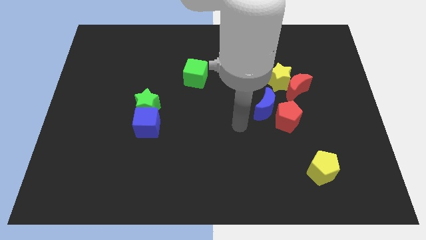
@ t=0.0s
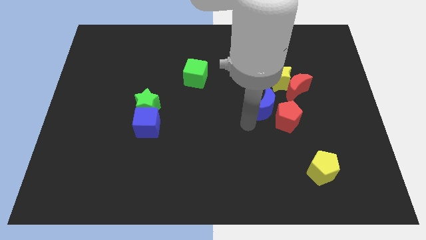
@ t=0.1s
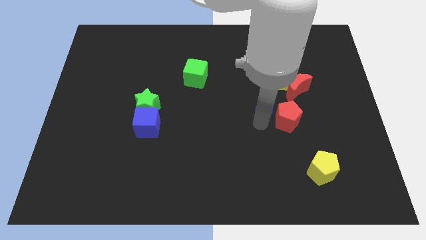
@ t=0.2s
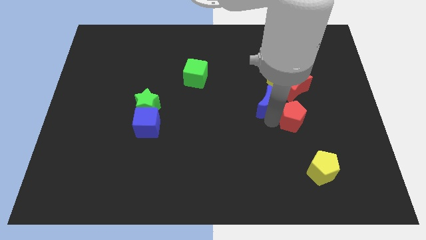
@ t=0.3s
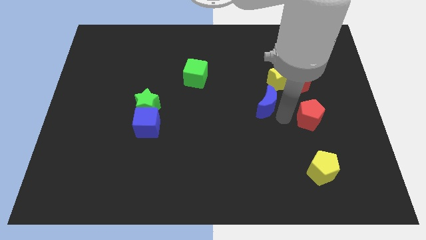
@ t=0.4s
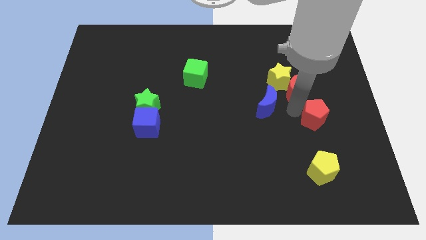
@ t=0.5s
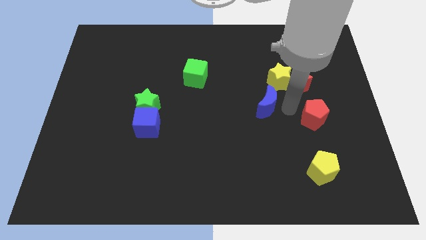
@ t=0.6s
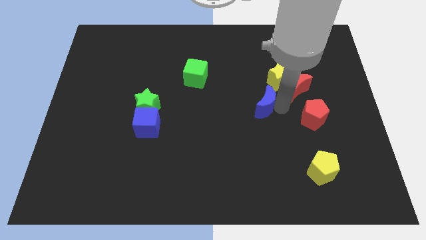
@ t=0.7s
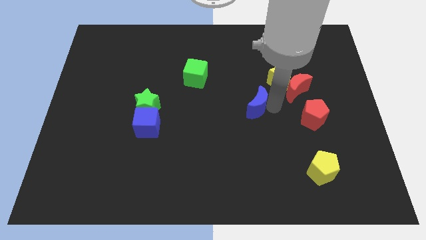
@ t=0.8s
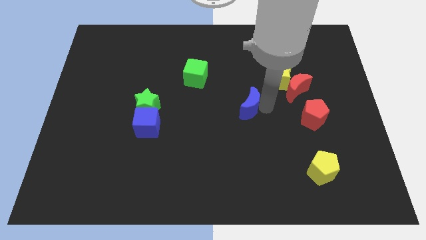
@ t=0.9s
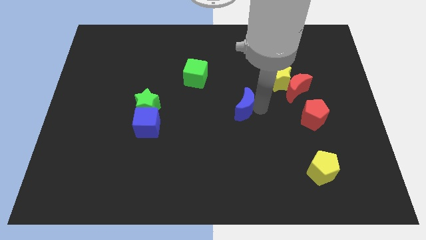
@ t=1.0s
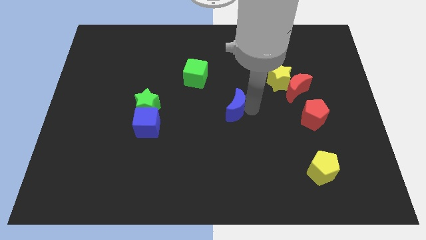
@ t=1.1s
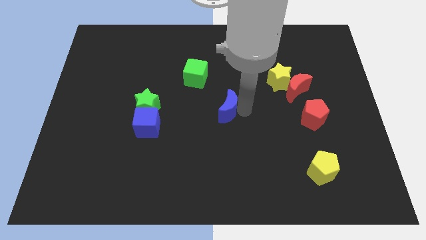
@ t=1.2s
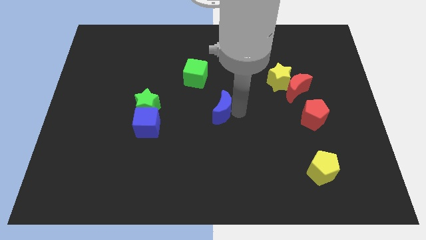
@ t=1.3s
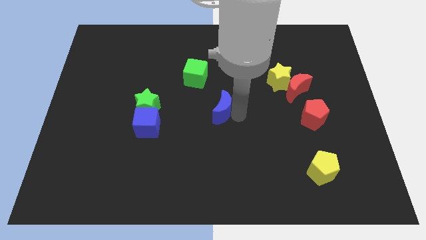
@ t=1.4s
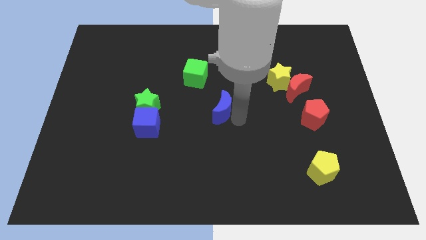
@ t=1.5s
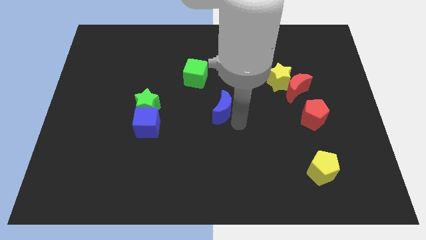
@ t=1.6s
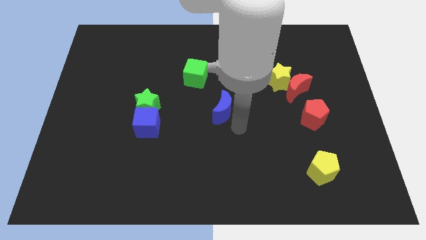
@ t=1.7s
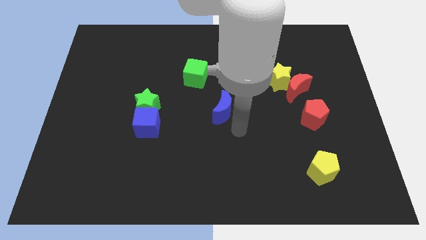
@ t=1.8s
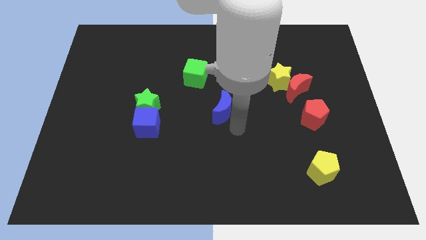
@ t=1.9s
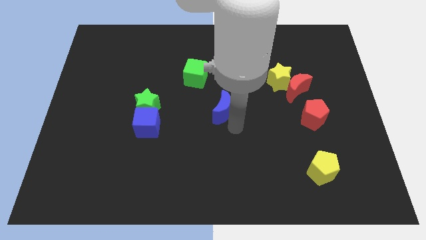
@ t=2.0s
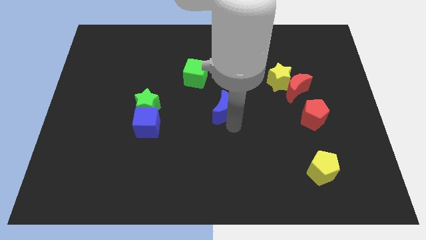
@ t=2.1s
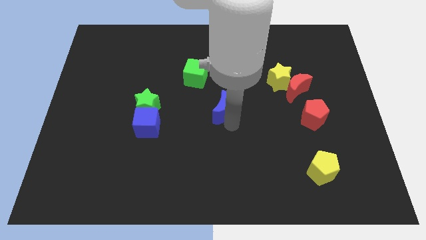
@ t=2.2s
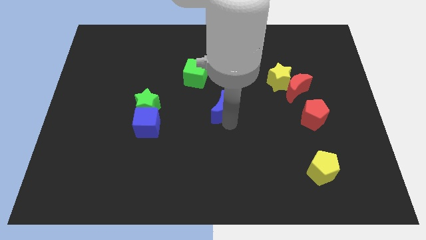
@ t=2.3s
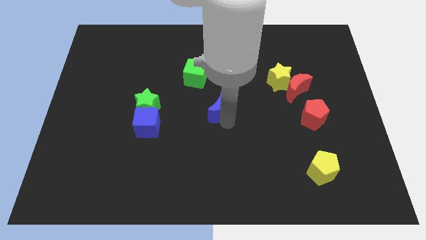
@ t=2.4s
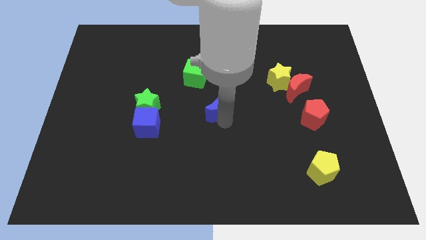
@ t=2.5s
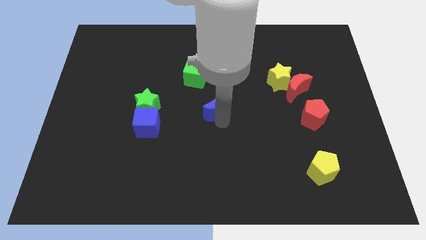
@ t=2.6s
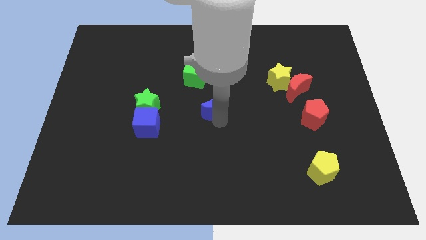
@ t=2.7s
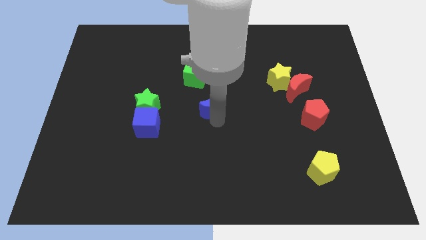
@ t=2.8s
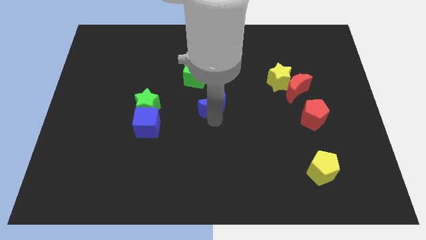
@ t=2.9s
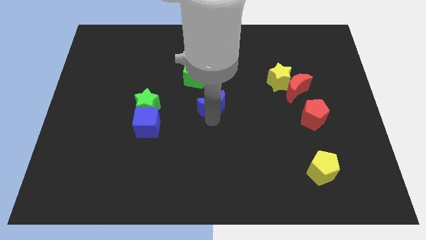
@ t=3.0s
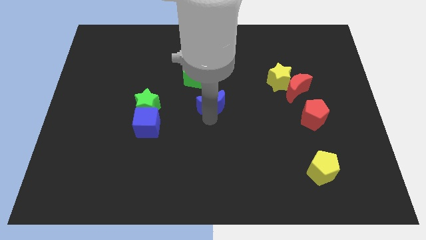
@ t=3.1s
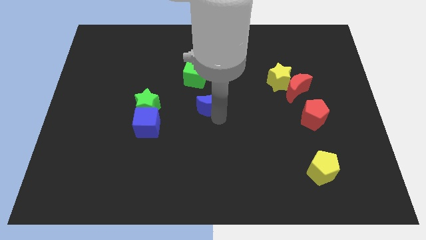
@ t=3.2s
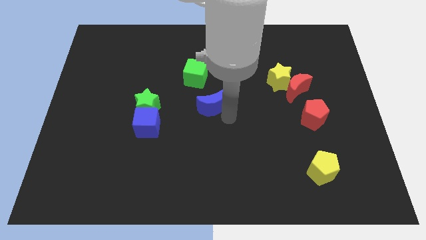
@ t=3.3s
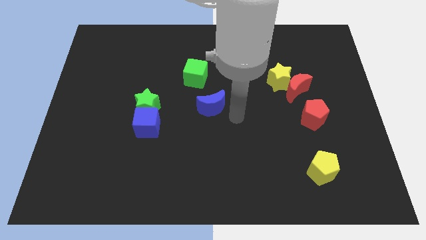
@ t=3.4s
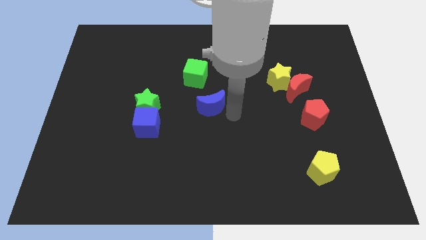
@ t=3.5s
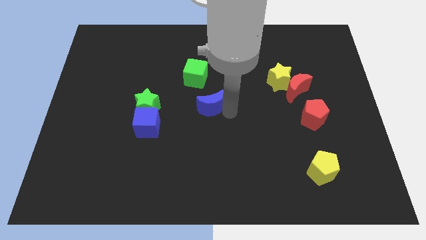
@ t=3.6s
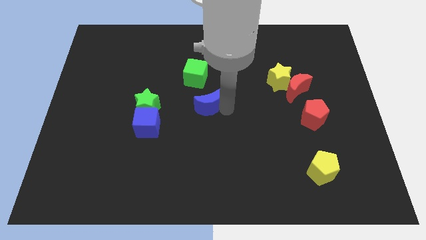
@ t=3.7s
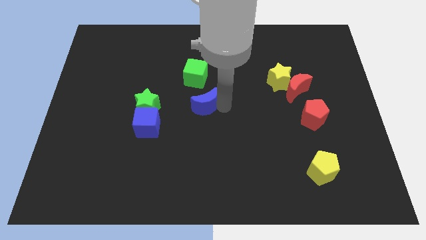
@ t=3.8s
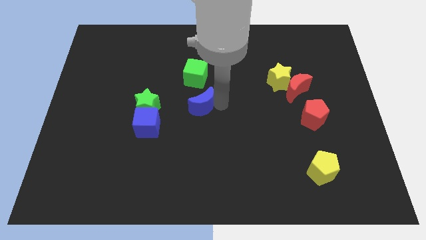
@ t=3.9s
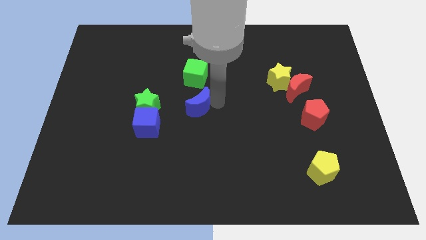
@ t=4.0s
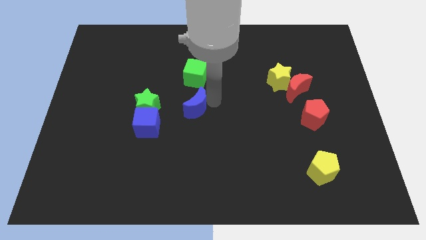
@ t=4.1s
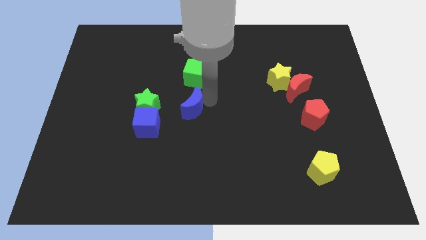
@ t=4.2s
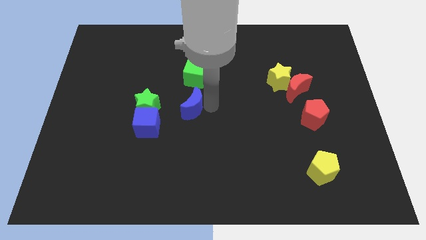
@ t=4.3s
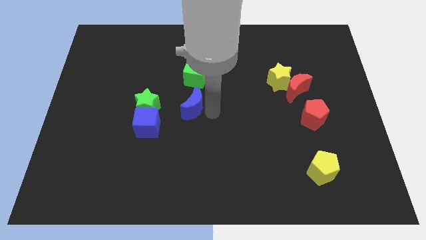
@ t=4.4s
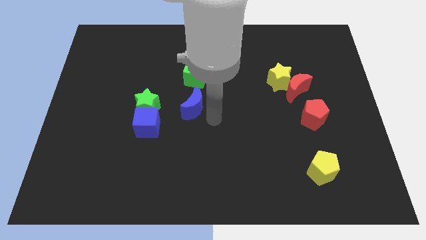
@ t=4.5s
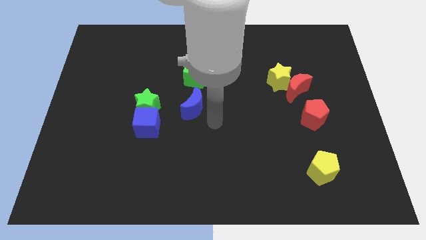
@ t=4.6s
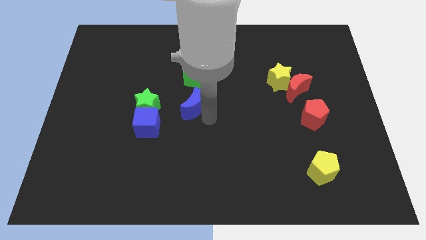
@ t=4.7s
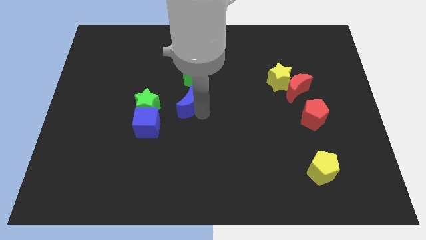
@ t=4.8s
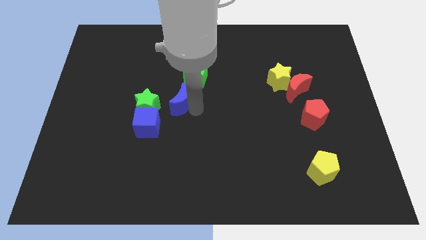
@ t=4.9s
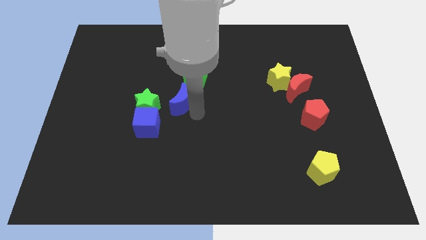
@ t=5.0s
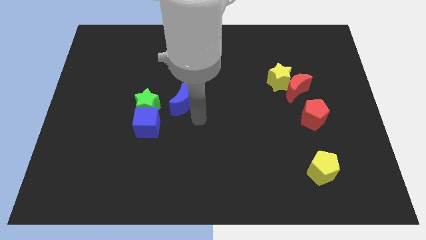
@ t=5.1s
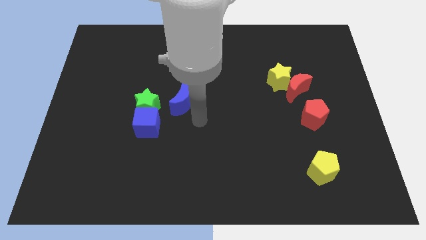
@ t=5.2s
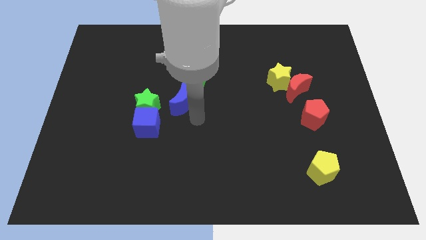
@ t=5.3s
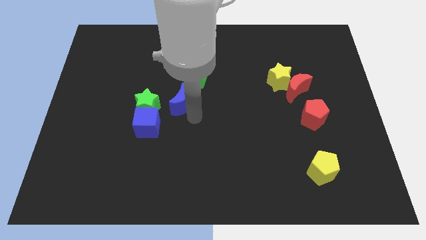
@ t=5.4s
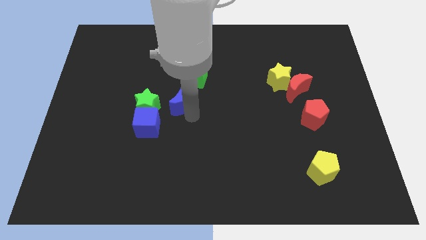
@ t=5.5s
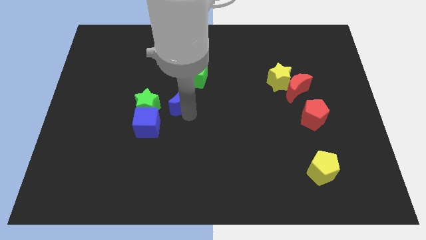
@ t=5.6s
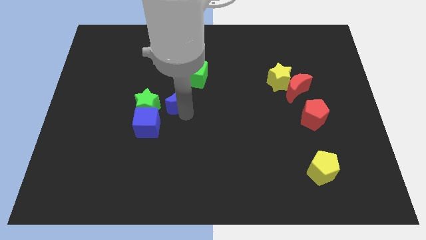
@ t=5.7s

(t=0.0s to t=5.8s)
push the blue moon diagonally up and to the right of the green star

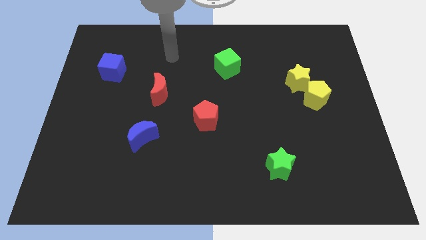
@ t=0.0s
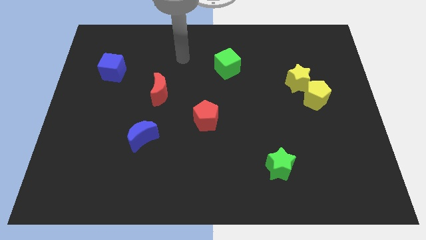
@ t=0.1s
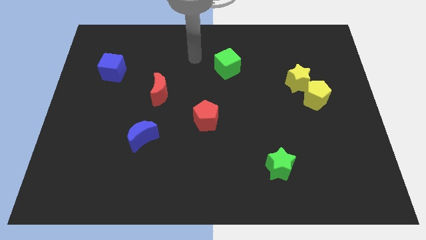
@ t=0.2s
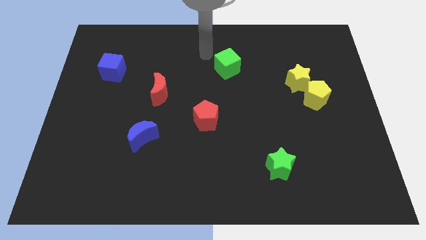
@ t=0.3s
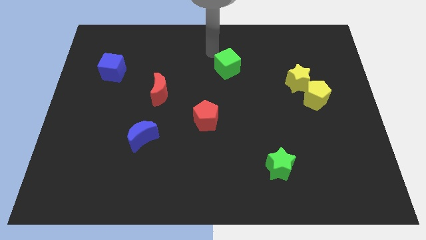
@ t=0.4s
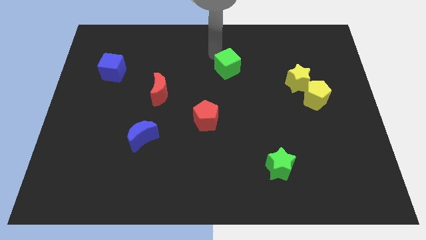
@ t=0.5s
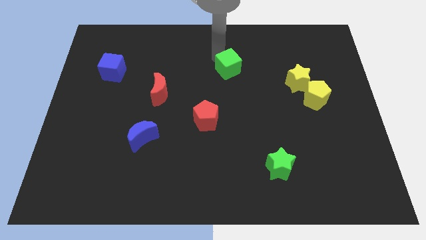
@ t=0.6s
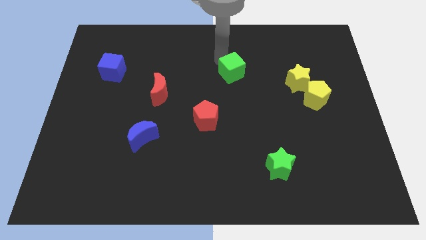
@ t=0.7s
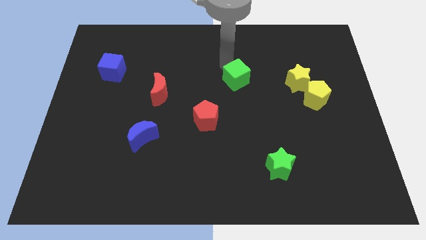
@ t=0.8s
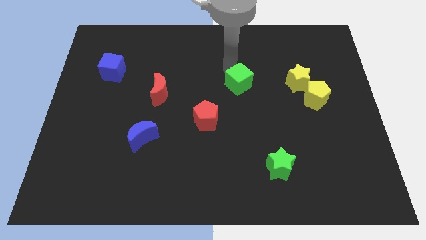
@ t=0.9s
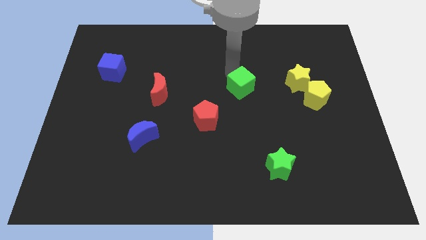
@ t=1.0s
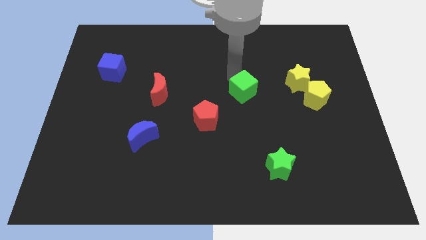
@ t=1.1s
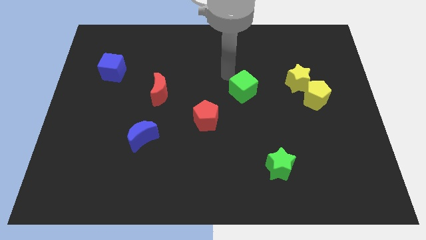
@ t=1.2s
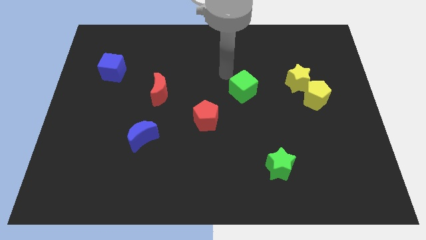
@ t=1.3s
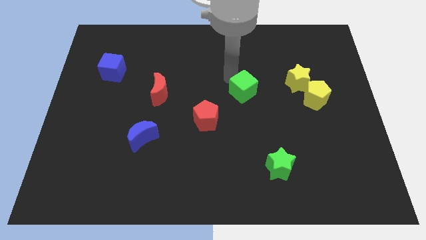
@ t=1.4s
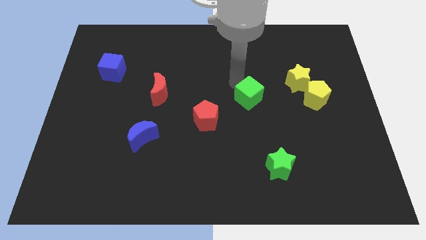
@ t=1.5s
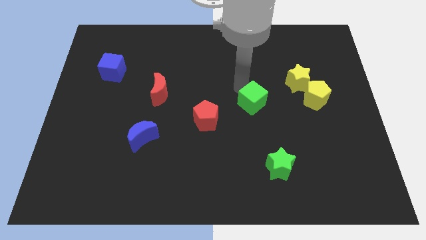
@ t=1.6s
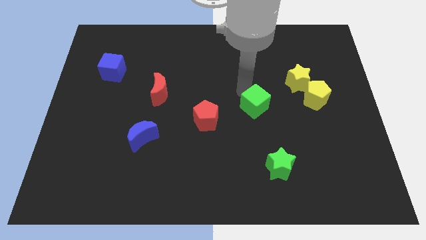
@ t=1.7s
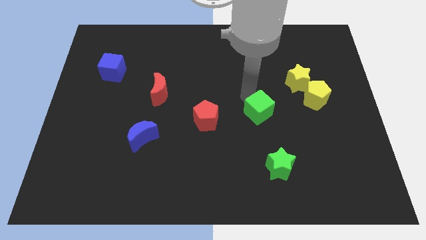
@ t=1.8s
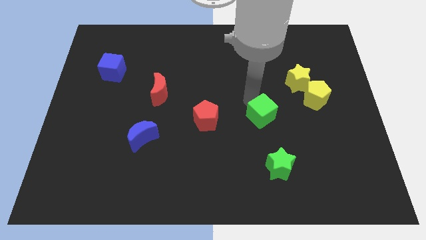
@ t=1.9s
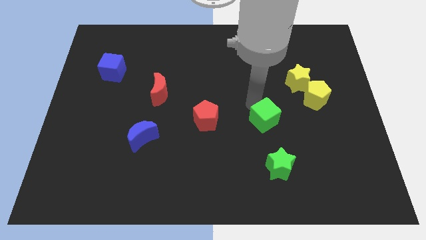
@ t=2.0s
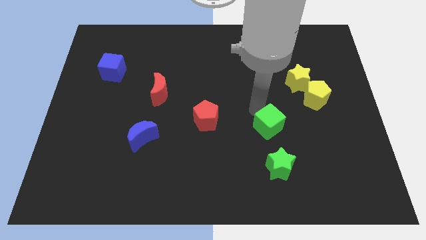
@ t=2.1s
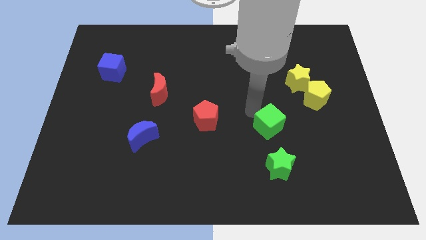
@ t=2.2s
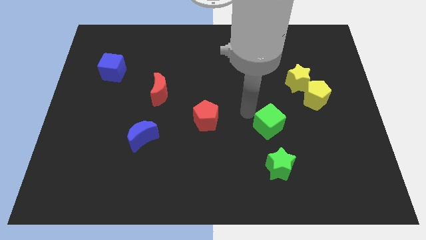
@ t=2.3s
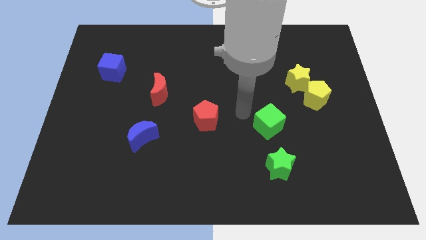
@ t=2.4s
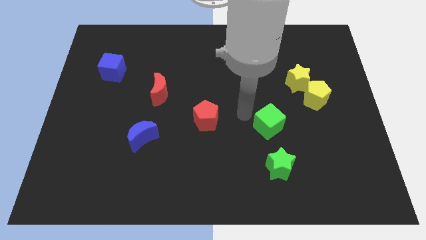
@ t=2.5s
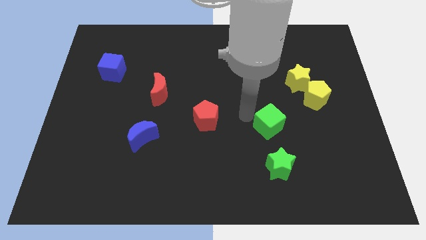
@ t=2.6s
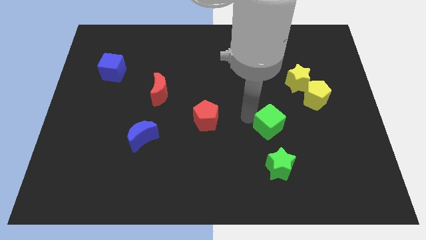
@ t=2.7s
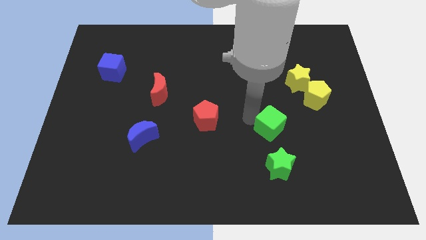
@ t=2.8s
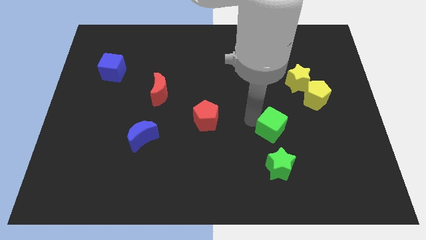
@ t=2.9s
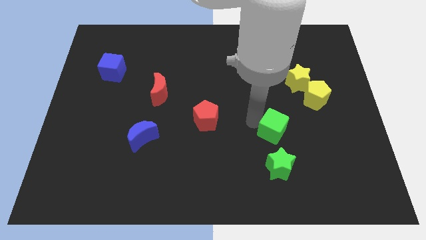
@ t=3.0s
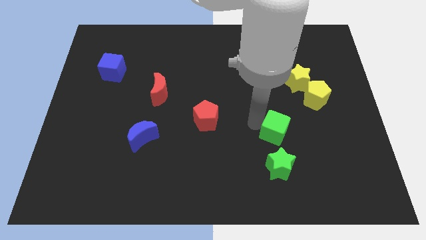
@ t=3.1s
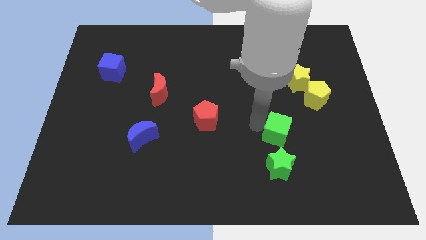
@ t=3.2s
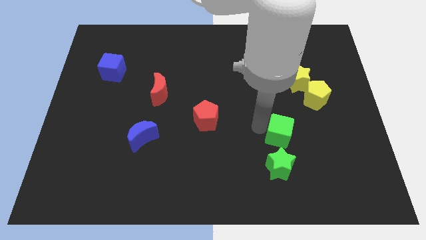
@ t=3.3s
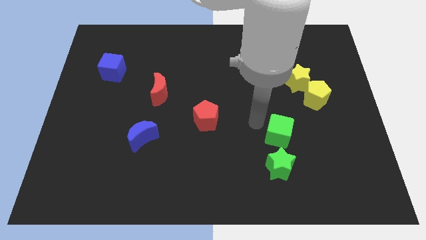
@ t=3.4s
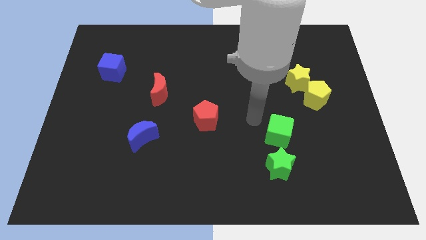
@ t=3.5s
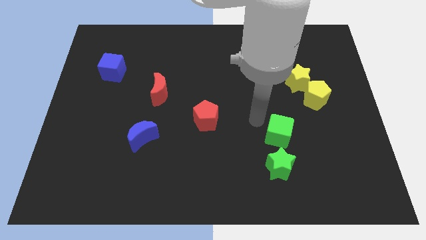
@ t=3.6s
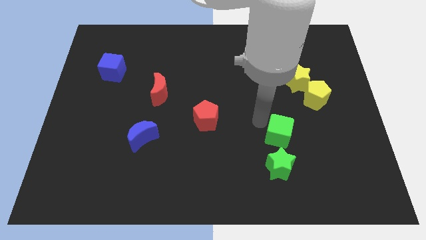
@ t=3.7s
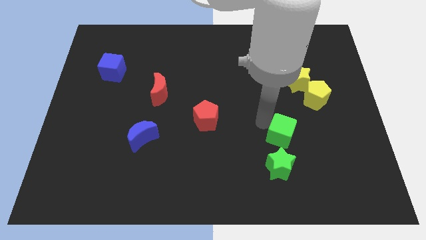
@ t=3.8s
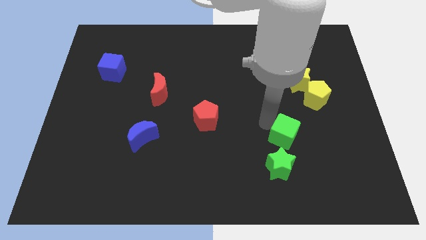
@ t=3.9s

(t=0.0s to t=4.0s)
put the green cube to the top right side of the green star
